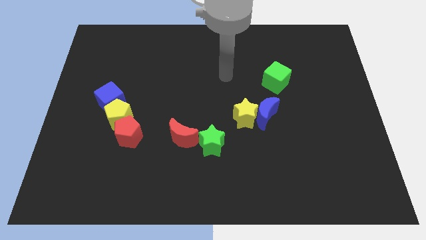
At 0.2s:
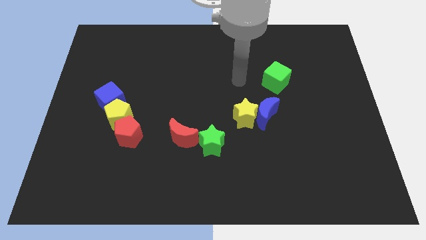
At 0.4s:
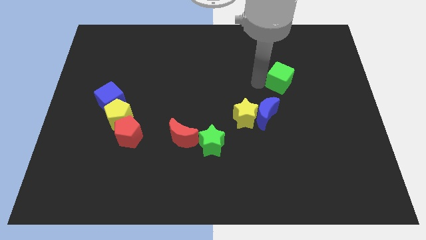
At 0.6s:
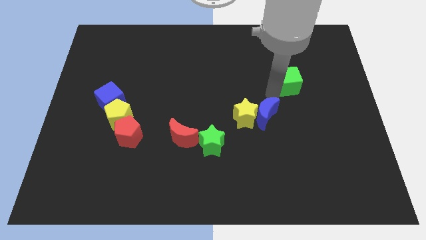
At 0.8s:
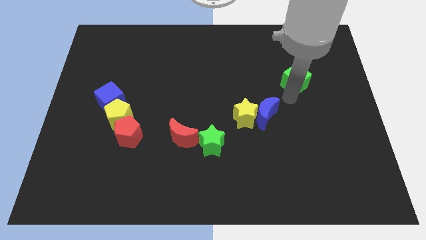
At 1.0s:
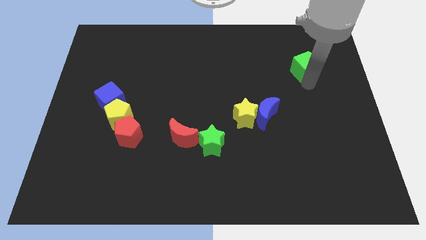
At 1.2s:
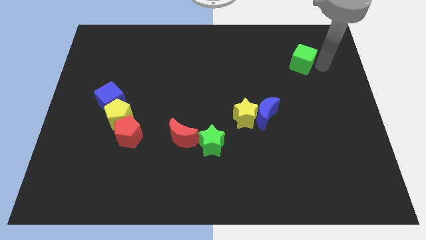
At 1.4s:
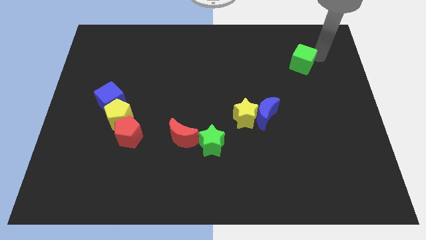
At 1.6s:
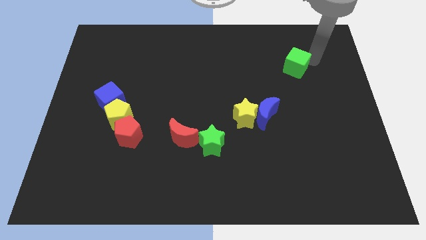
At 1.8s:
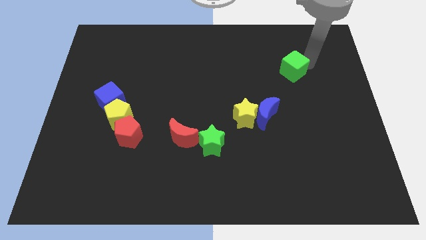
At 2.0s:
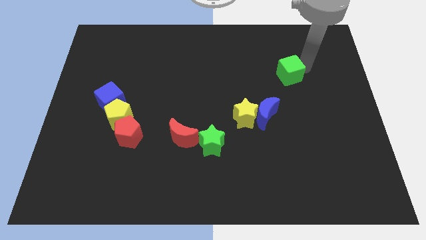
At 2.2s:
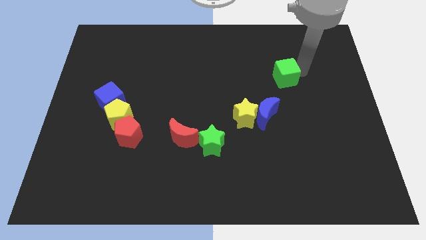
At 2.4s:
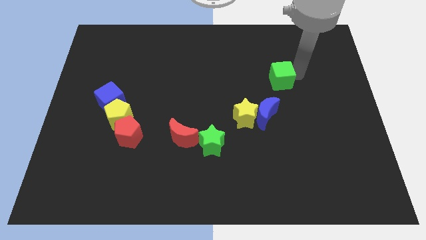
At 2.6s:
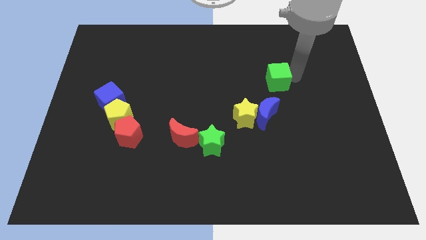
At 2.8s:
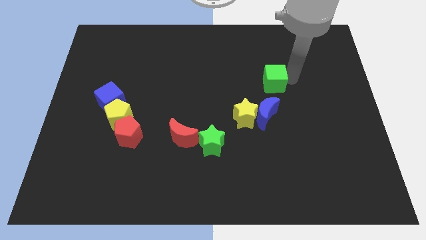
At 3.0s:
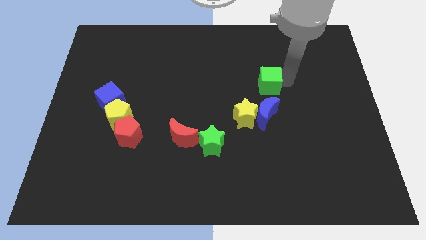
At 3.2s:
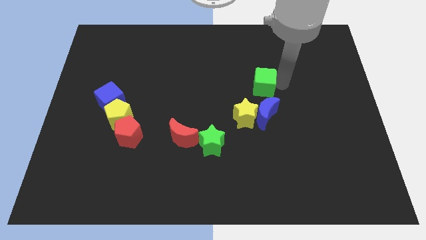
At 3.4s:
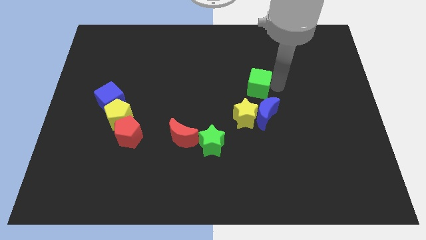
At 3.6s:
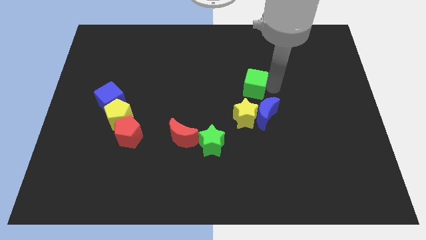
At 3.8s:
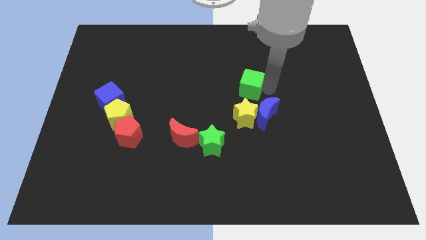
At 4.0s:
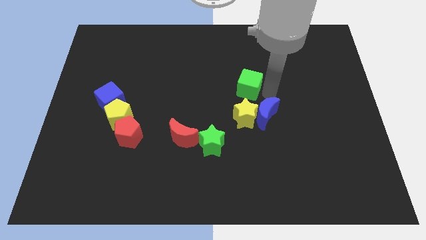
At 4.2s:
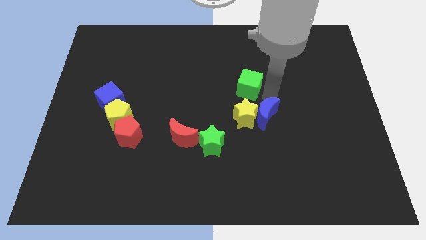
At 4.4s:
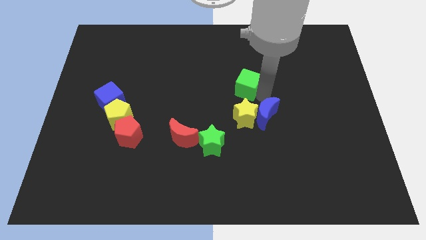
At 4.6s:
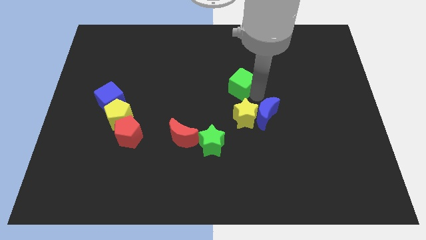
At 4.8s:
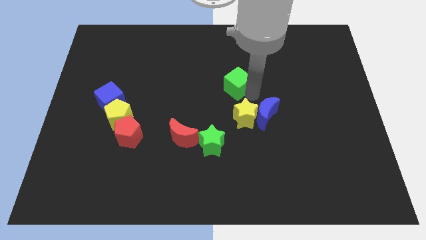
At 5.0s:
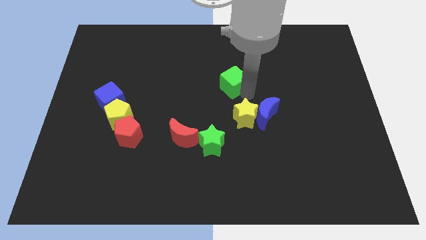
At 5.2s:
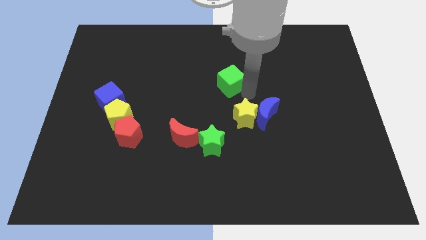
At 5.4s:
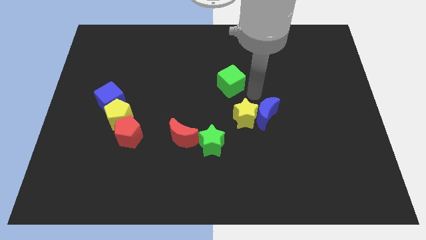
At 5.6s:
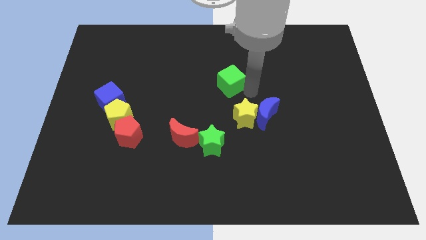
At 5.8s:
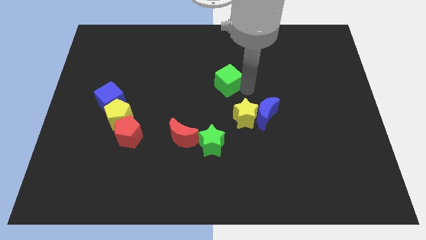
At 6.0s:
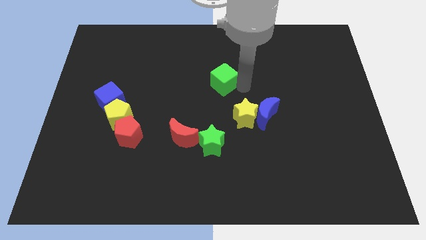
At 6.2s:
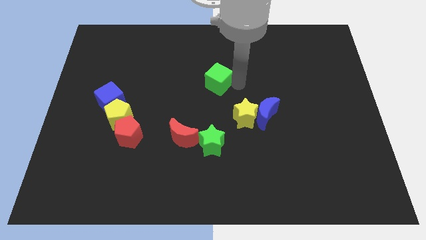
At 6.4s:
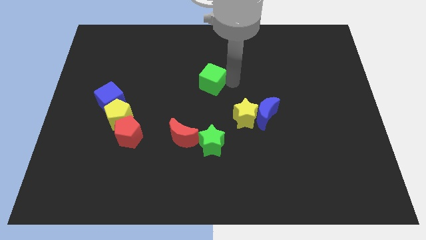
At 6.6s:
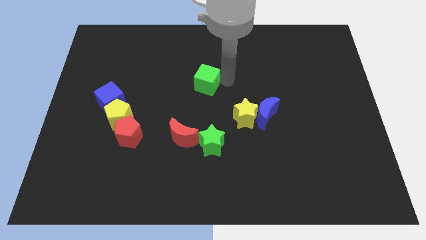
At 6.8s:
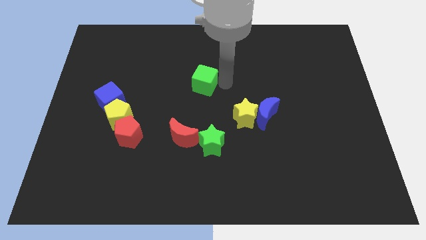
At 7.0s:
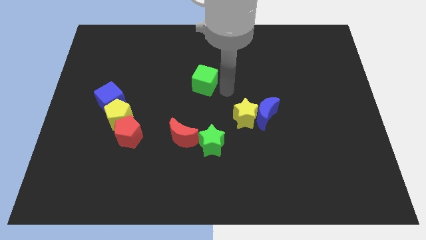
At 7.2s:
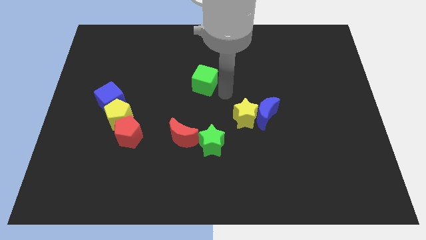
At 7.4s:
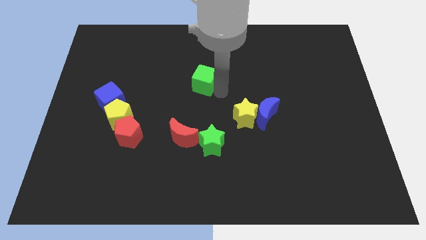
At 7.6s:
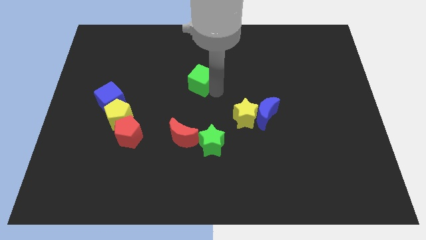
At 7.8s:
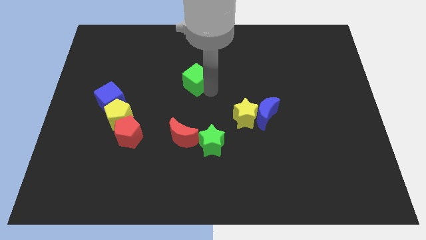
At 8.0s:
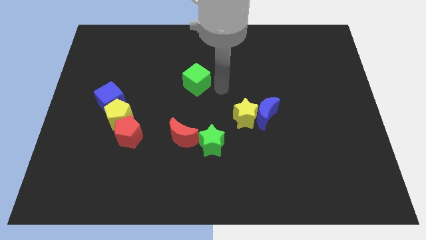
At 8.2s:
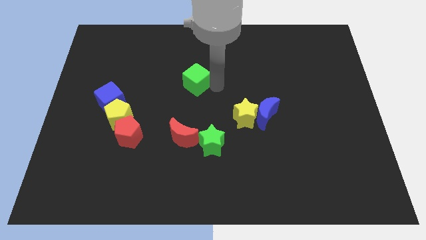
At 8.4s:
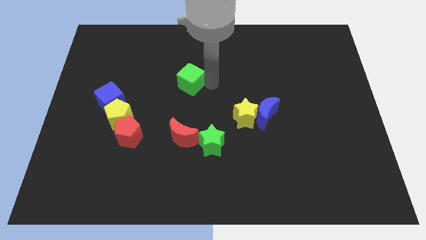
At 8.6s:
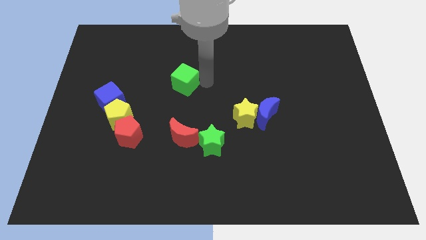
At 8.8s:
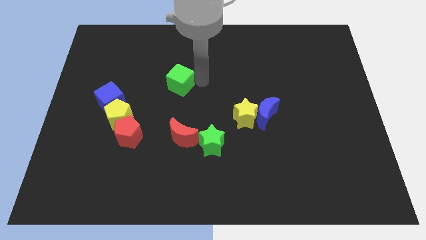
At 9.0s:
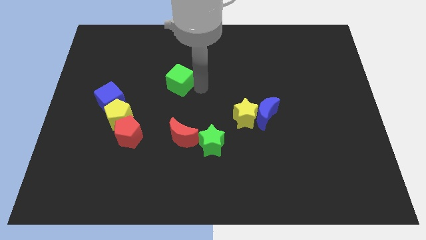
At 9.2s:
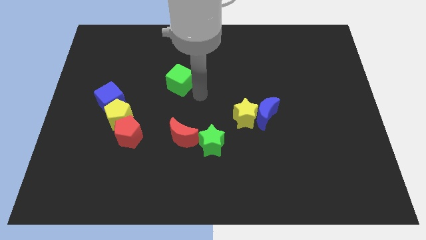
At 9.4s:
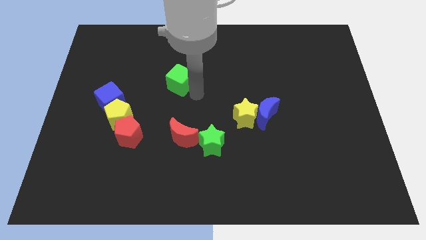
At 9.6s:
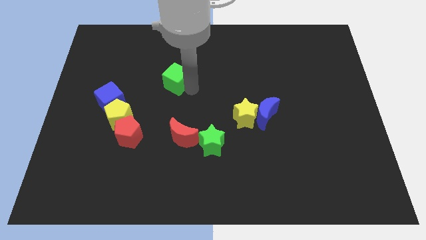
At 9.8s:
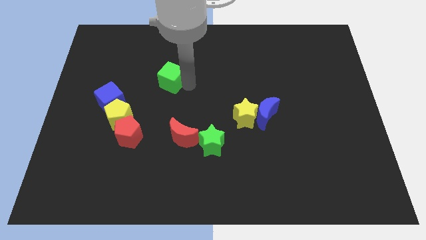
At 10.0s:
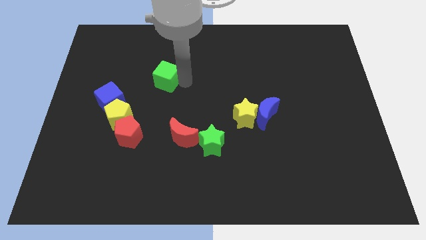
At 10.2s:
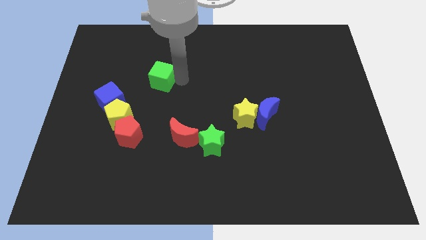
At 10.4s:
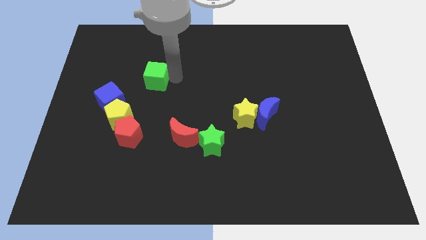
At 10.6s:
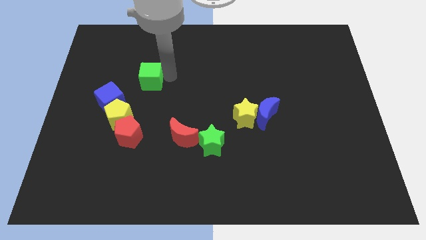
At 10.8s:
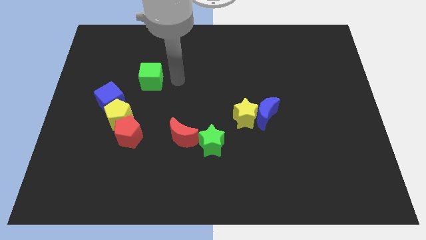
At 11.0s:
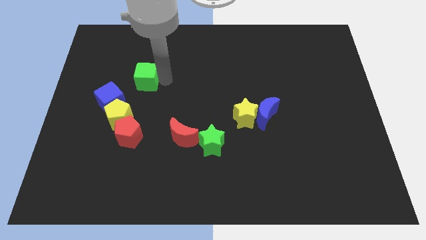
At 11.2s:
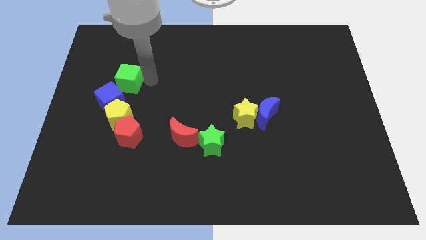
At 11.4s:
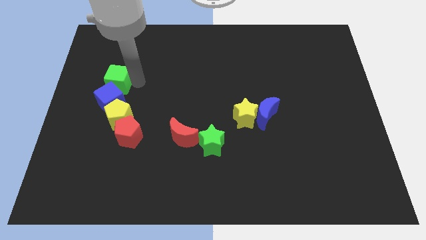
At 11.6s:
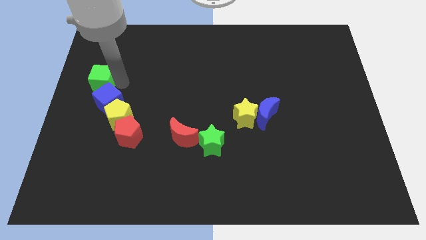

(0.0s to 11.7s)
move the green cube to the left side

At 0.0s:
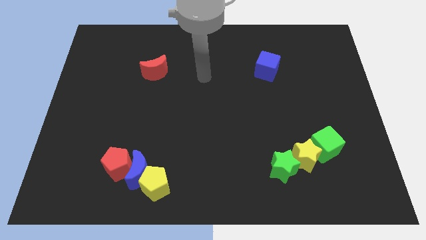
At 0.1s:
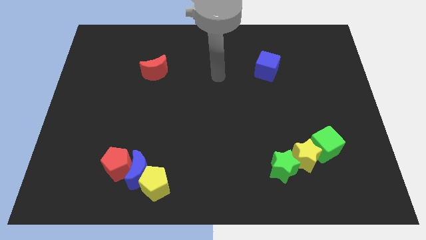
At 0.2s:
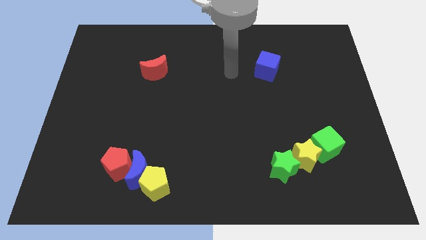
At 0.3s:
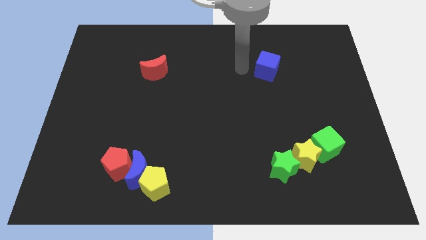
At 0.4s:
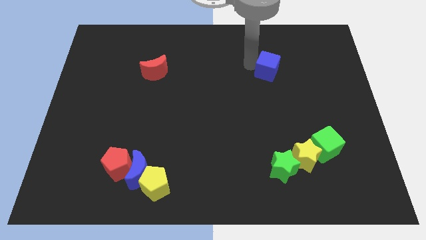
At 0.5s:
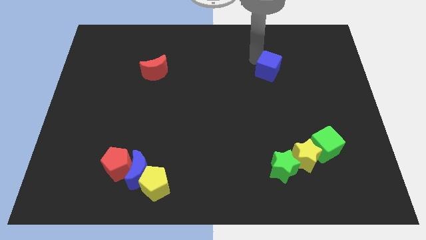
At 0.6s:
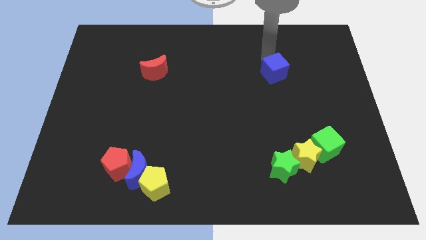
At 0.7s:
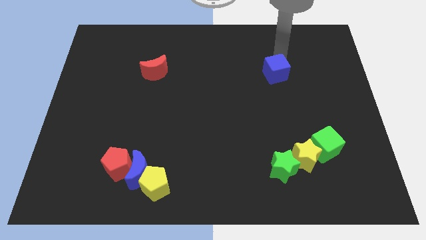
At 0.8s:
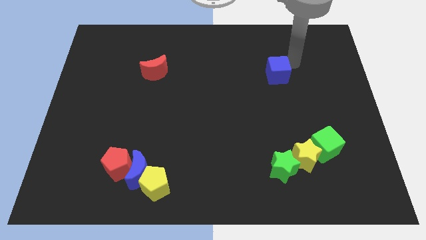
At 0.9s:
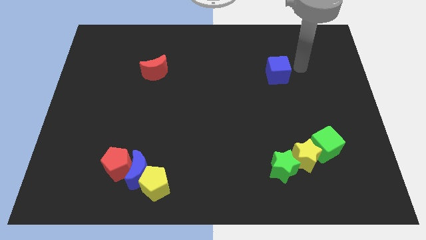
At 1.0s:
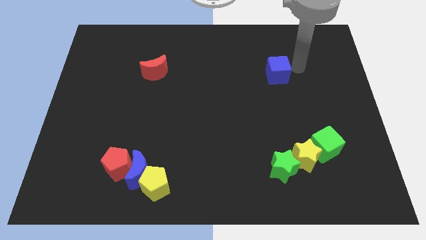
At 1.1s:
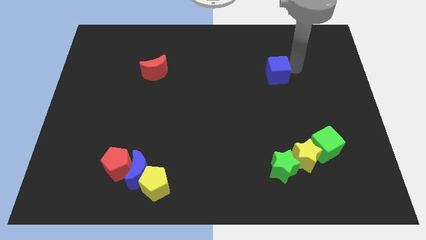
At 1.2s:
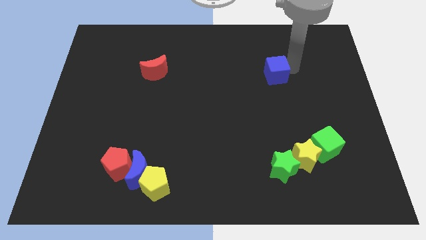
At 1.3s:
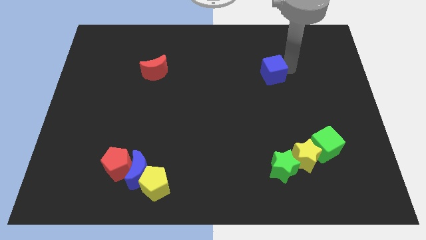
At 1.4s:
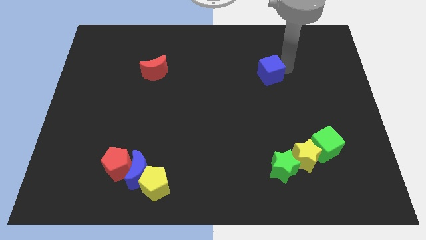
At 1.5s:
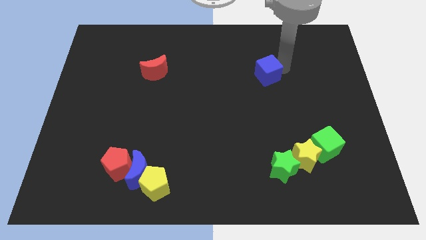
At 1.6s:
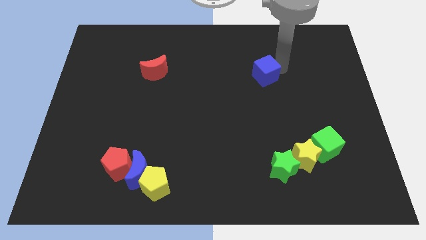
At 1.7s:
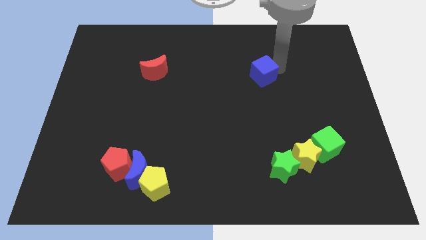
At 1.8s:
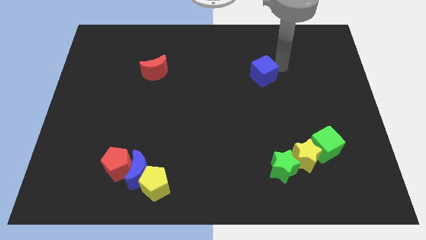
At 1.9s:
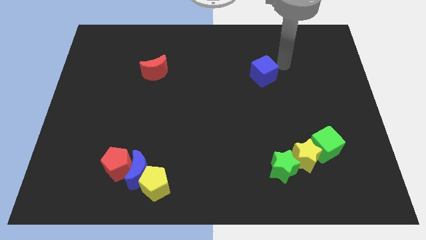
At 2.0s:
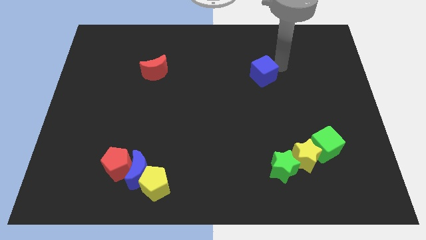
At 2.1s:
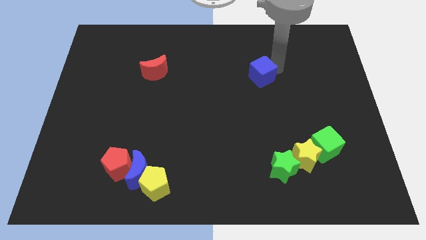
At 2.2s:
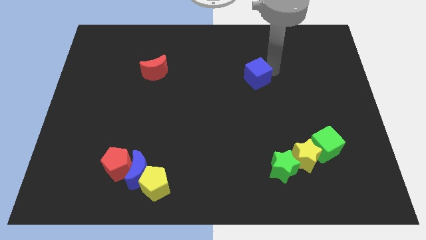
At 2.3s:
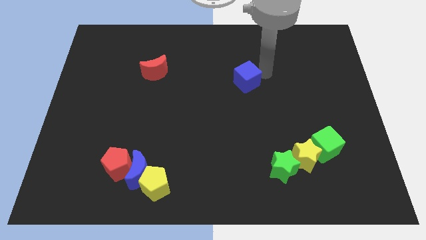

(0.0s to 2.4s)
push the blue cube to the center
